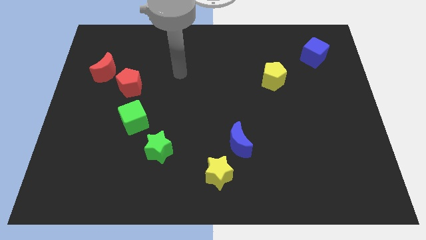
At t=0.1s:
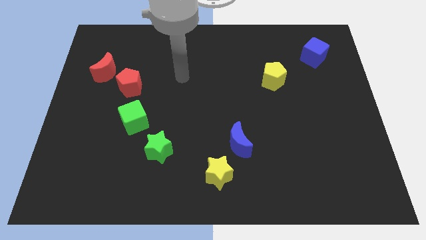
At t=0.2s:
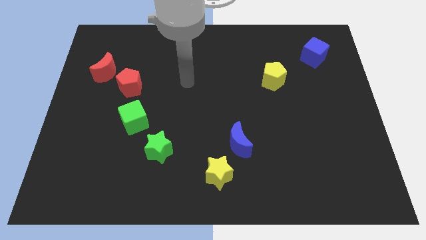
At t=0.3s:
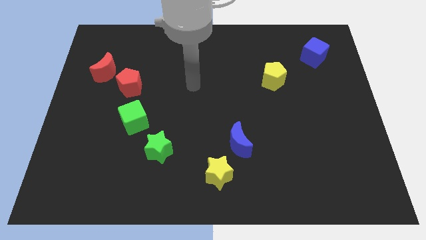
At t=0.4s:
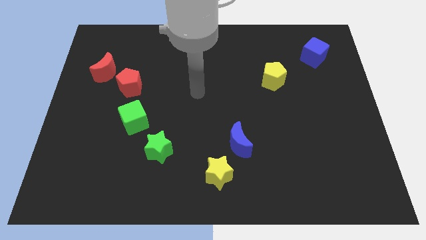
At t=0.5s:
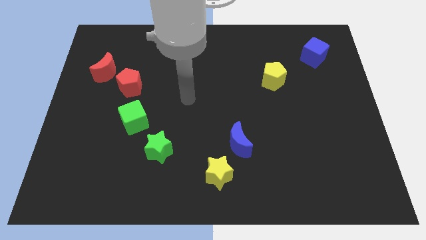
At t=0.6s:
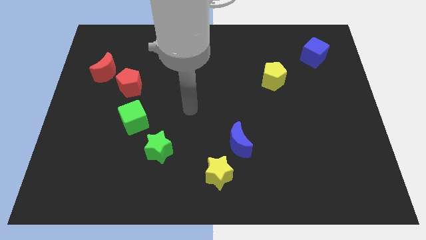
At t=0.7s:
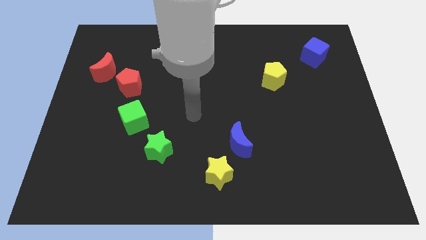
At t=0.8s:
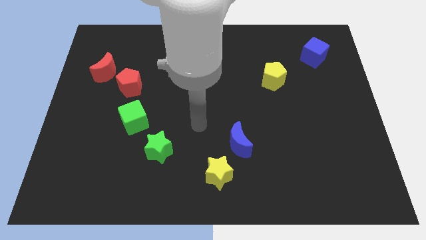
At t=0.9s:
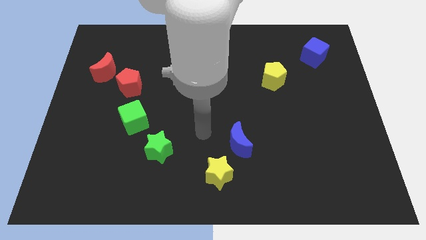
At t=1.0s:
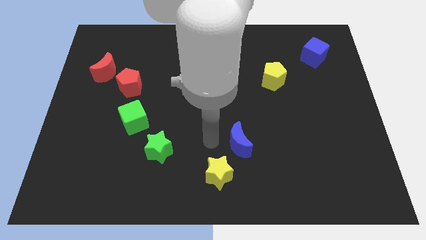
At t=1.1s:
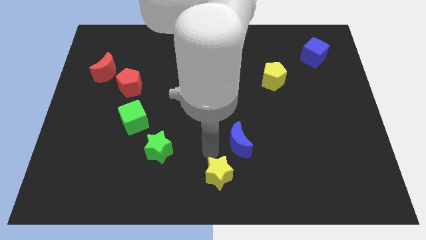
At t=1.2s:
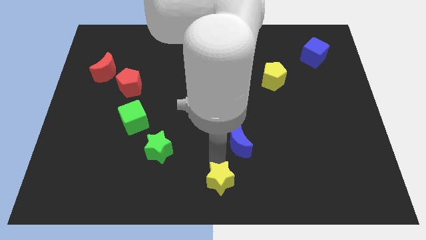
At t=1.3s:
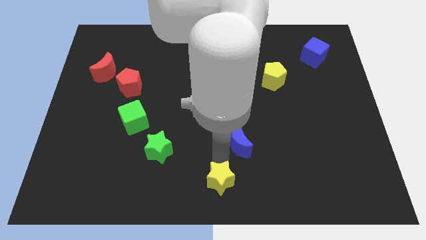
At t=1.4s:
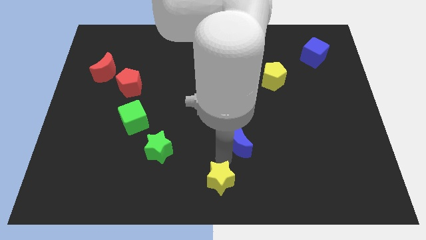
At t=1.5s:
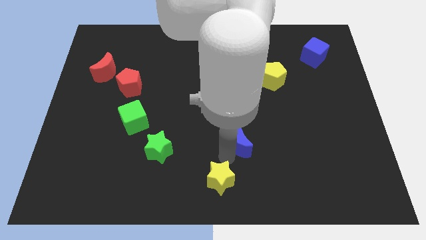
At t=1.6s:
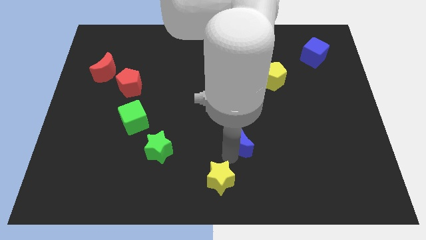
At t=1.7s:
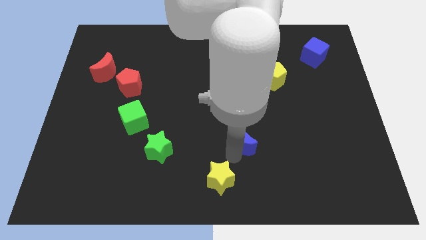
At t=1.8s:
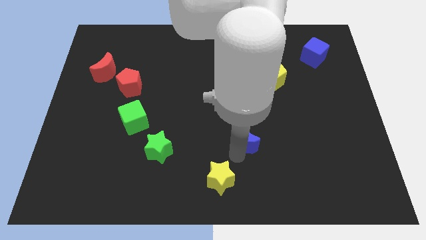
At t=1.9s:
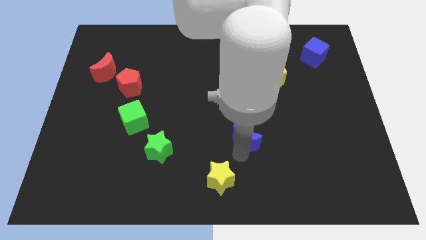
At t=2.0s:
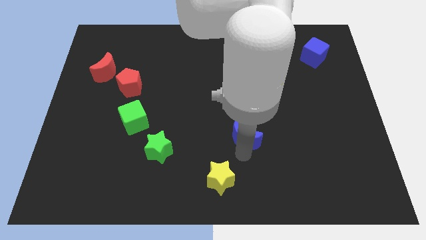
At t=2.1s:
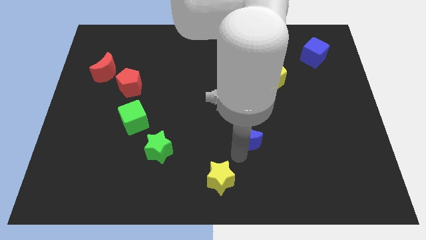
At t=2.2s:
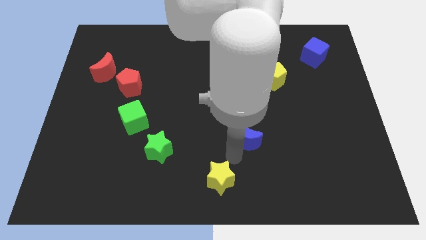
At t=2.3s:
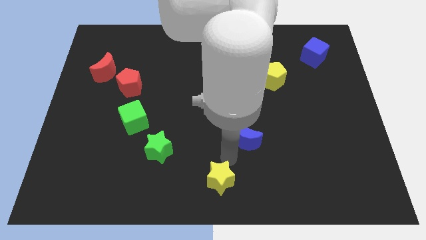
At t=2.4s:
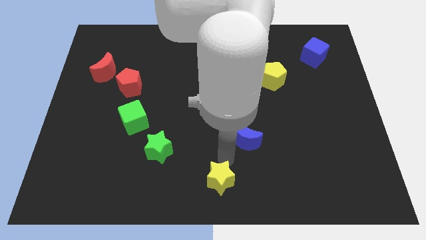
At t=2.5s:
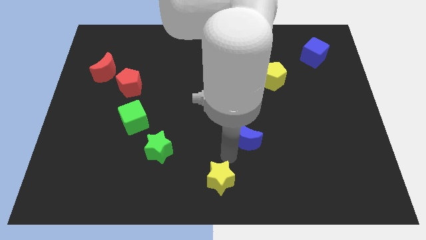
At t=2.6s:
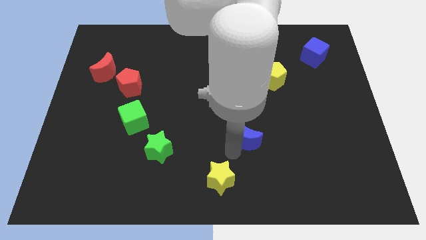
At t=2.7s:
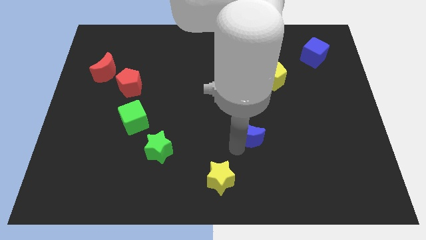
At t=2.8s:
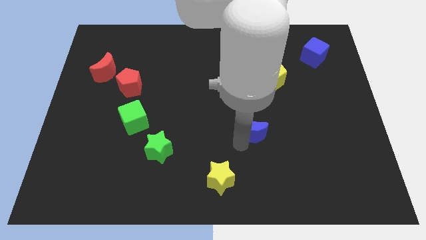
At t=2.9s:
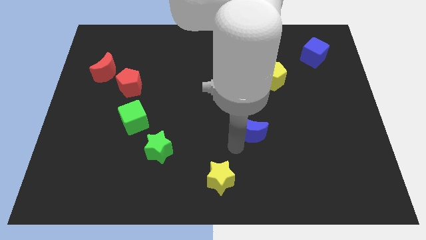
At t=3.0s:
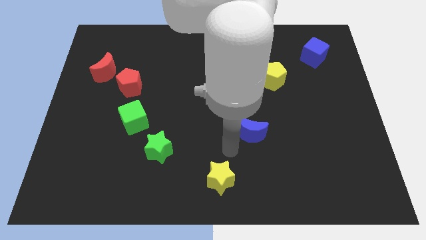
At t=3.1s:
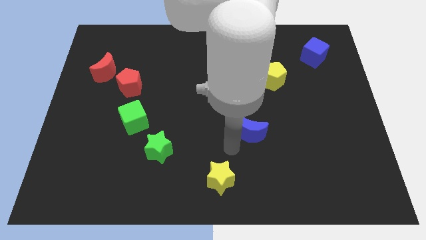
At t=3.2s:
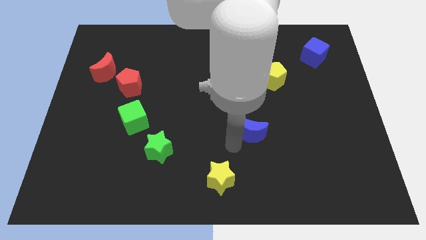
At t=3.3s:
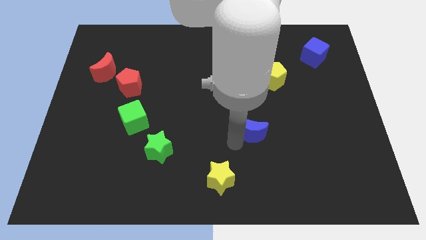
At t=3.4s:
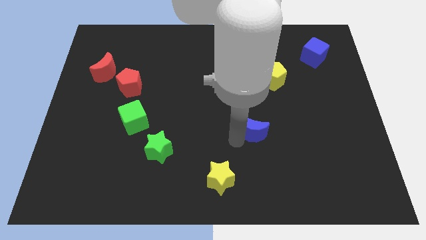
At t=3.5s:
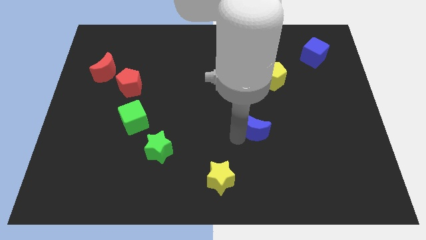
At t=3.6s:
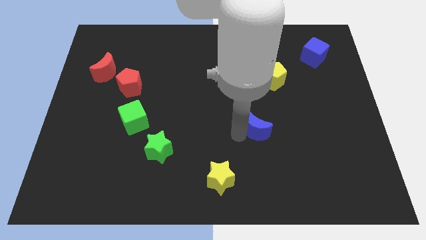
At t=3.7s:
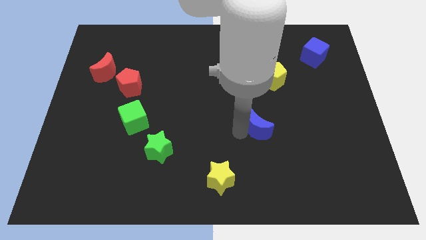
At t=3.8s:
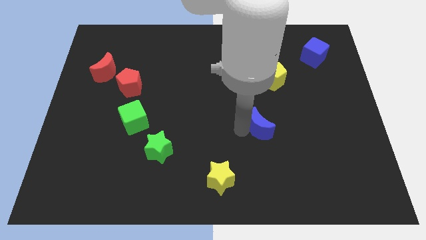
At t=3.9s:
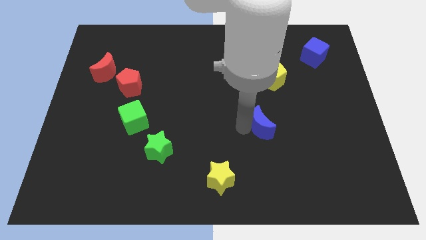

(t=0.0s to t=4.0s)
slightly push the blue moon upwards and to the right

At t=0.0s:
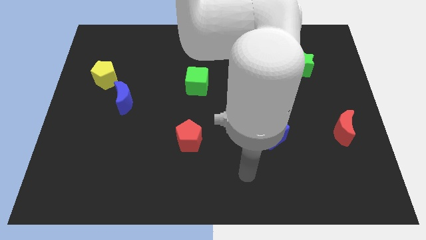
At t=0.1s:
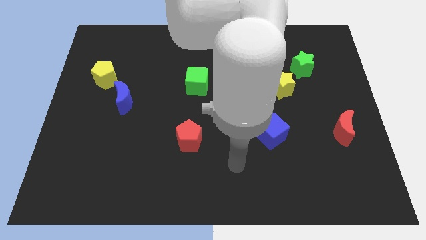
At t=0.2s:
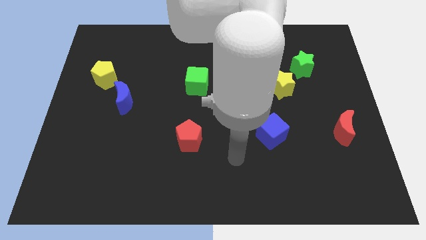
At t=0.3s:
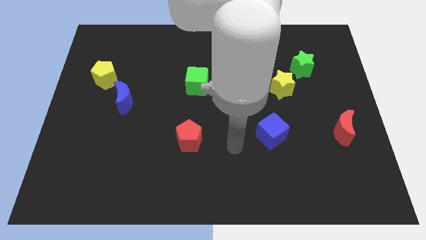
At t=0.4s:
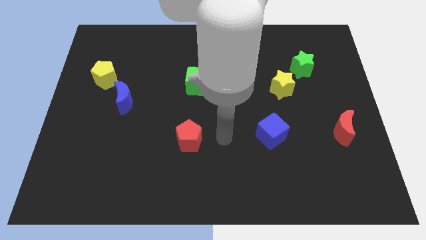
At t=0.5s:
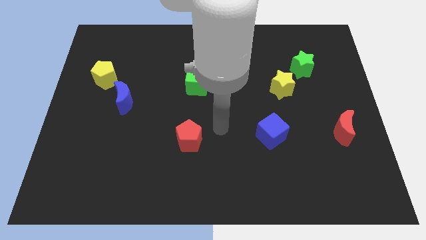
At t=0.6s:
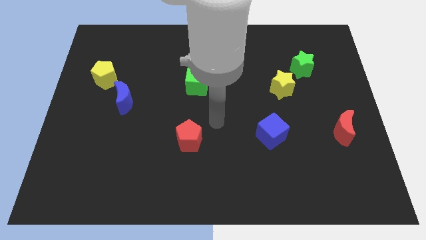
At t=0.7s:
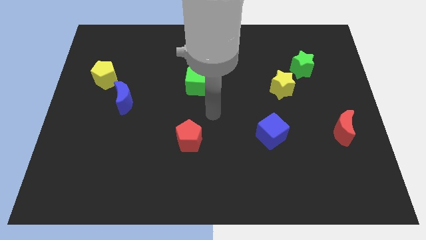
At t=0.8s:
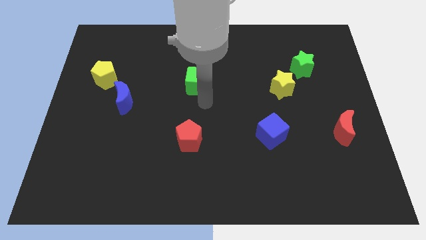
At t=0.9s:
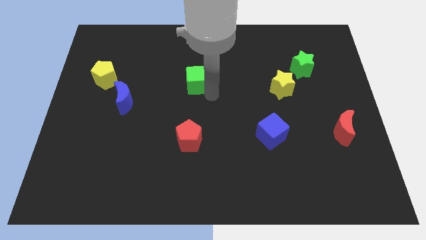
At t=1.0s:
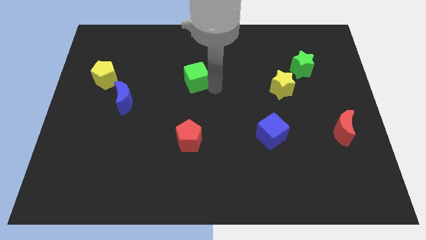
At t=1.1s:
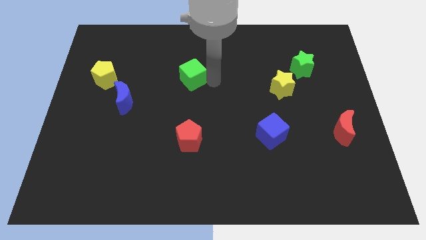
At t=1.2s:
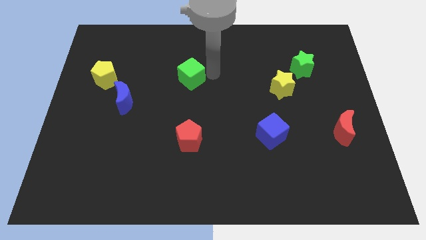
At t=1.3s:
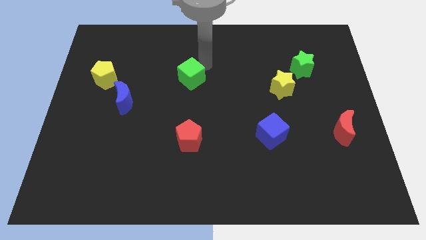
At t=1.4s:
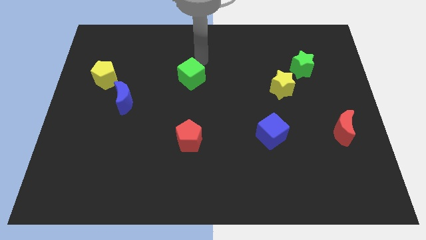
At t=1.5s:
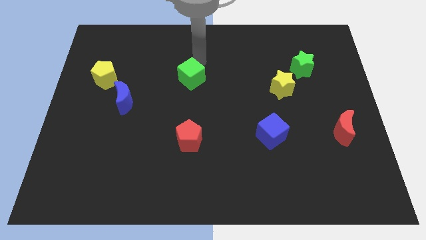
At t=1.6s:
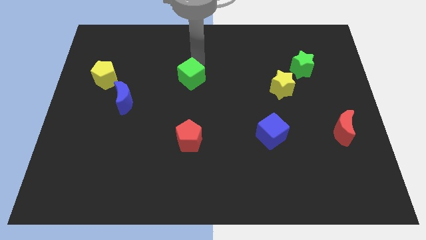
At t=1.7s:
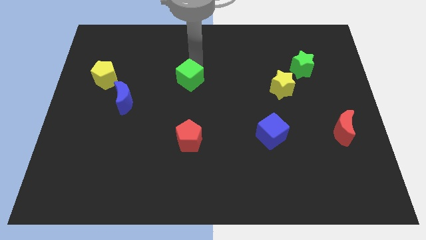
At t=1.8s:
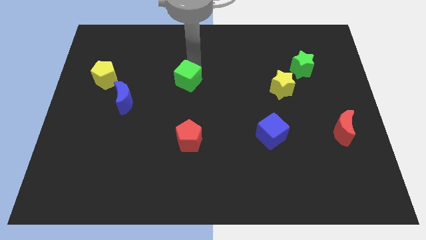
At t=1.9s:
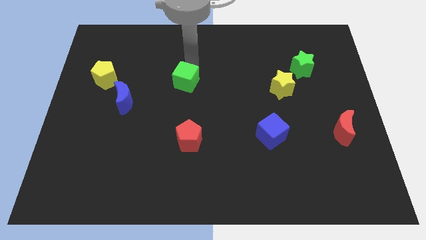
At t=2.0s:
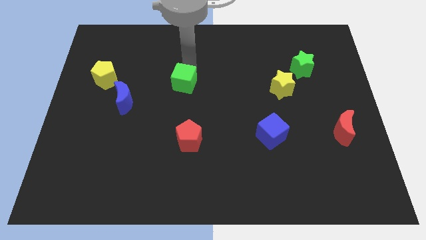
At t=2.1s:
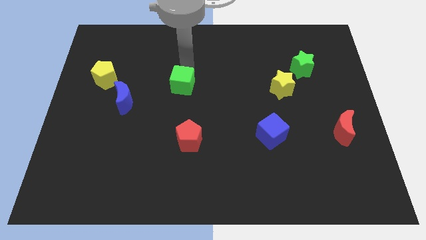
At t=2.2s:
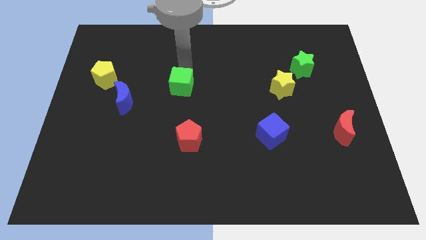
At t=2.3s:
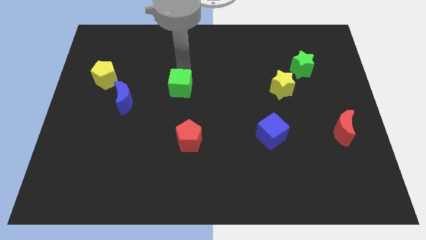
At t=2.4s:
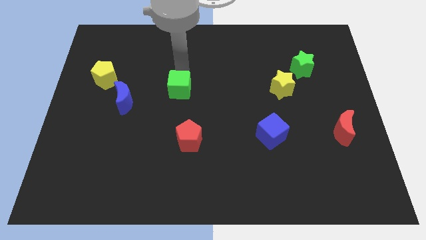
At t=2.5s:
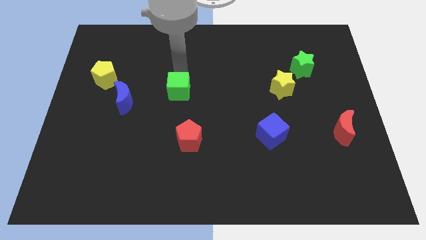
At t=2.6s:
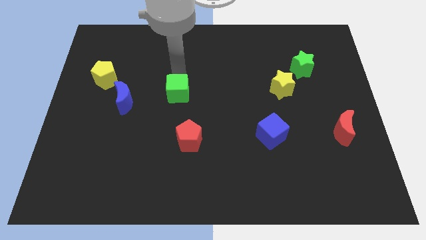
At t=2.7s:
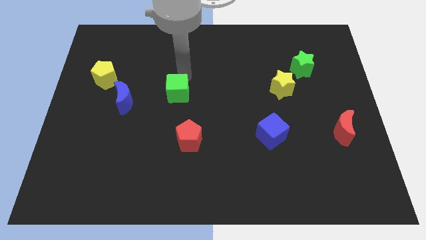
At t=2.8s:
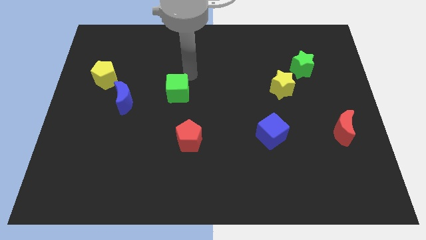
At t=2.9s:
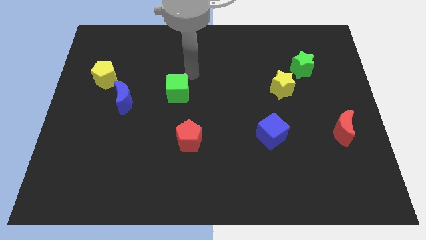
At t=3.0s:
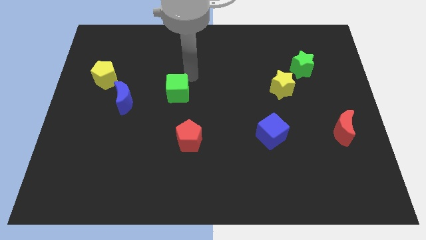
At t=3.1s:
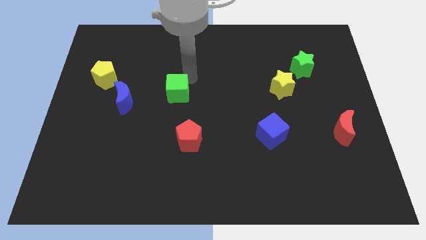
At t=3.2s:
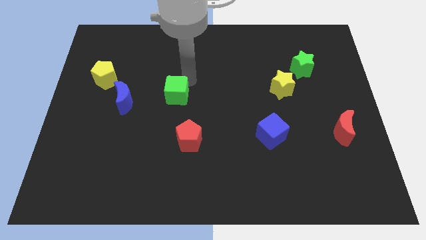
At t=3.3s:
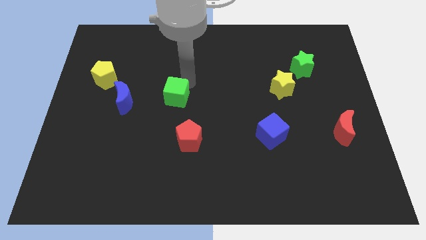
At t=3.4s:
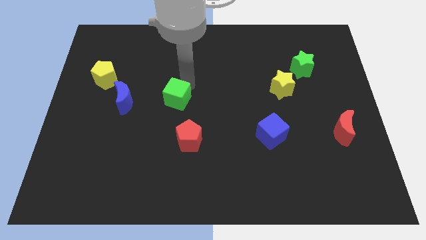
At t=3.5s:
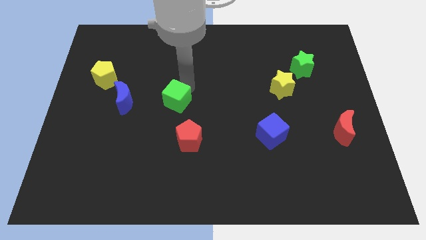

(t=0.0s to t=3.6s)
move the green cube a little bit downwards and left diagonally
